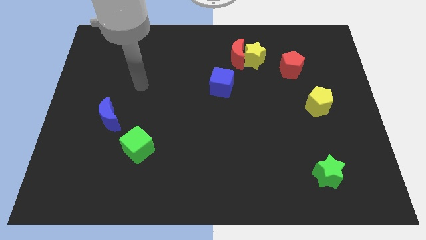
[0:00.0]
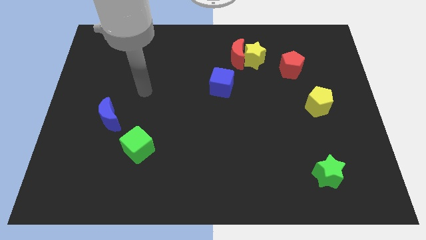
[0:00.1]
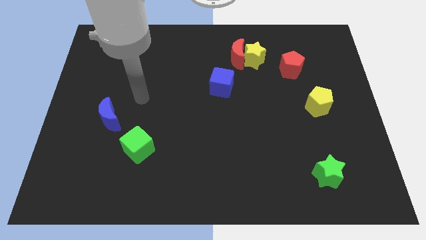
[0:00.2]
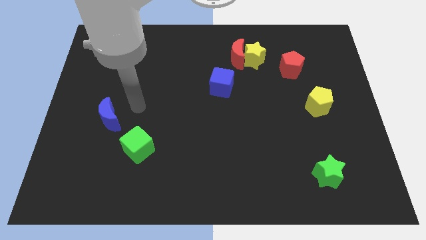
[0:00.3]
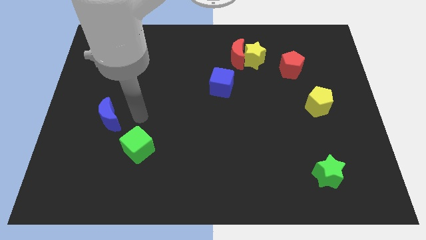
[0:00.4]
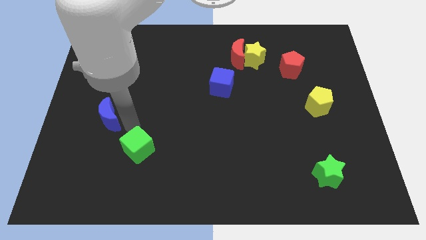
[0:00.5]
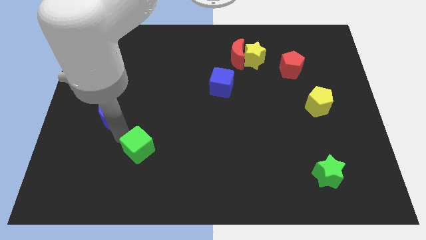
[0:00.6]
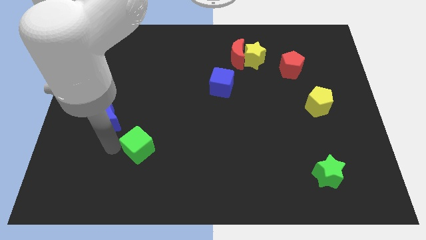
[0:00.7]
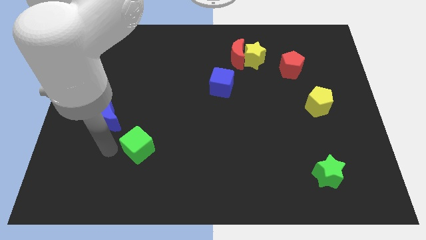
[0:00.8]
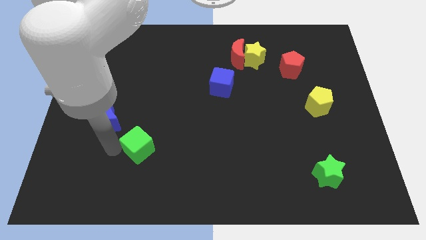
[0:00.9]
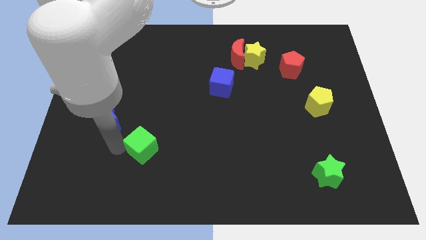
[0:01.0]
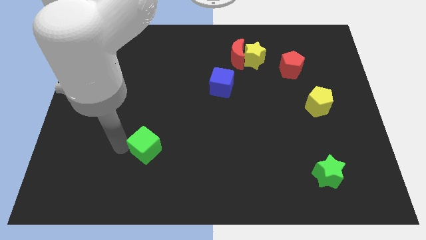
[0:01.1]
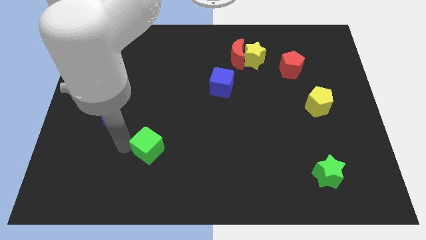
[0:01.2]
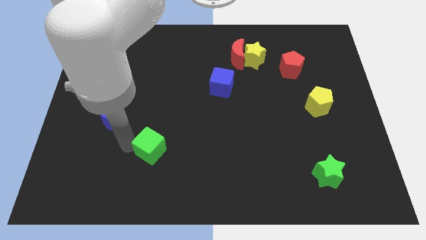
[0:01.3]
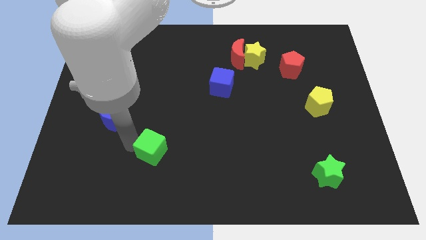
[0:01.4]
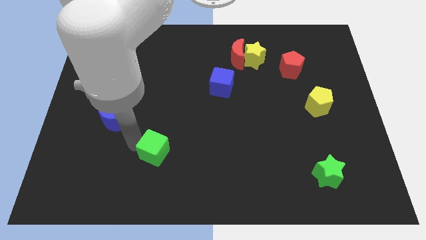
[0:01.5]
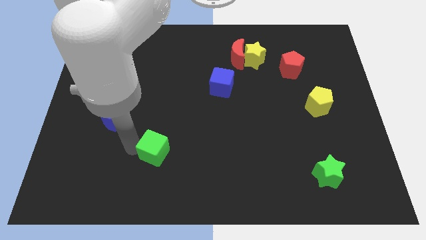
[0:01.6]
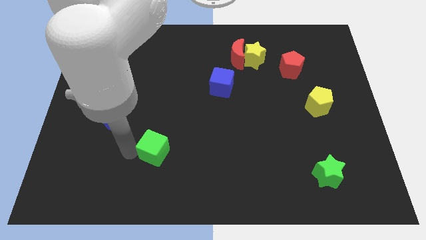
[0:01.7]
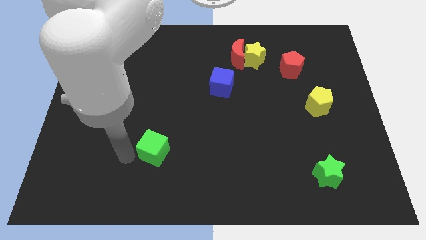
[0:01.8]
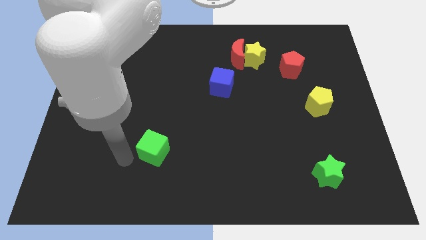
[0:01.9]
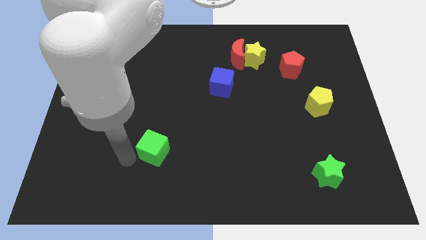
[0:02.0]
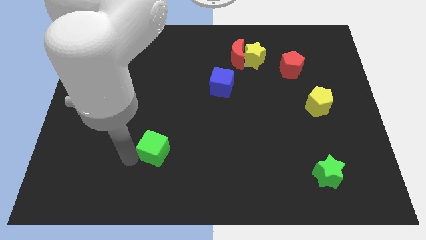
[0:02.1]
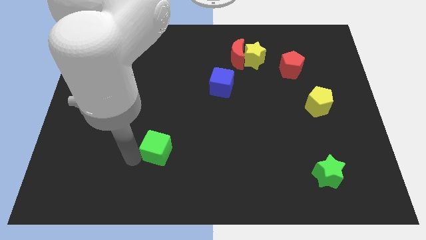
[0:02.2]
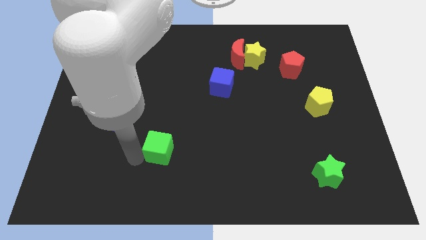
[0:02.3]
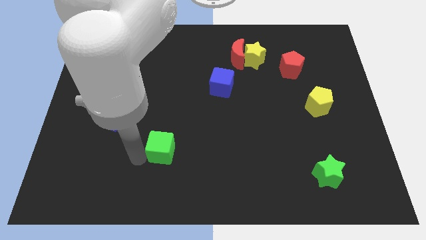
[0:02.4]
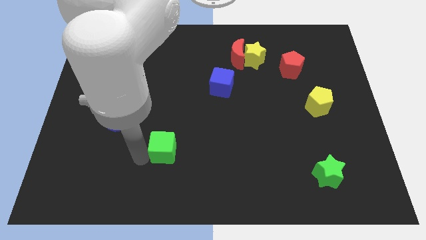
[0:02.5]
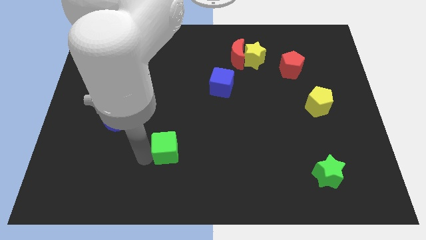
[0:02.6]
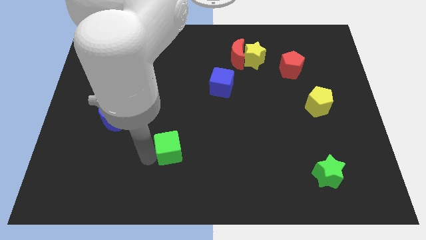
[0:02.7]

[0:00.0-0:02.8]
slide the green cube slightly right

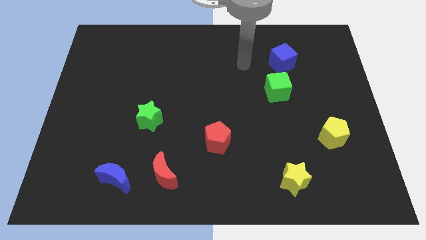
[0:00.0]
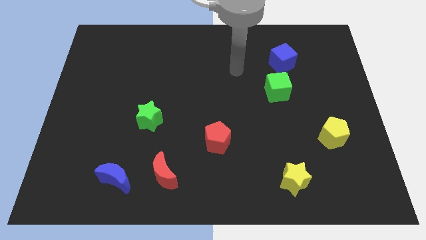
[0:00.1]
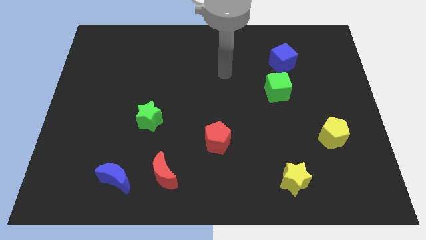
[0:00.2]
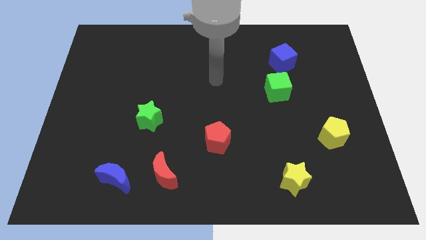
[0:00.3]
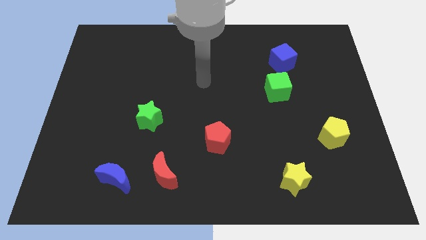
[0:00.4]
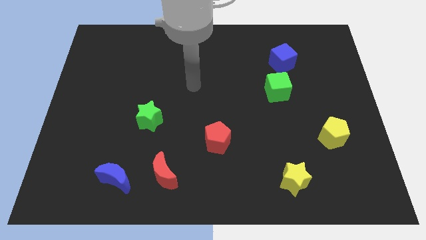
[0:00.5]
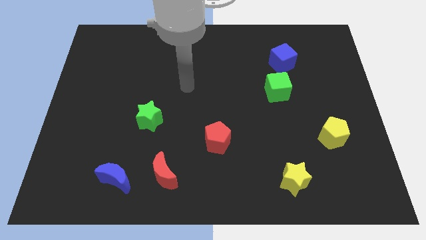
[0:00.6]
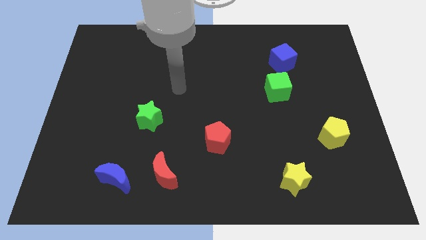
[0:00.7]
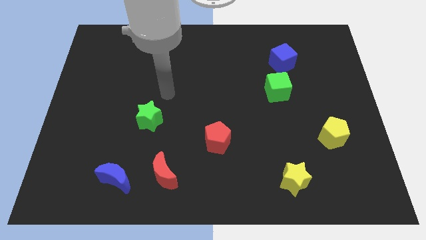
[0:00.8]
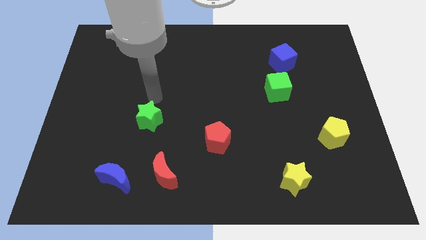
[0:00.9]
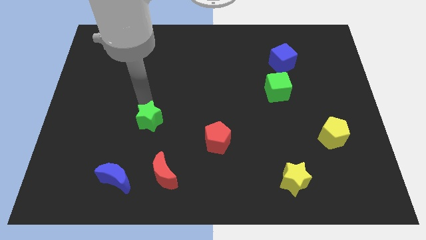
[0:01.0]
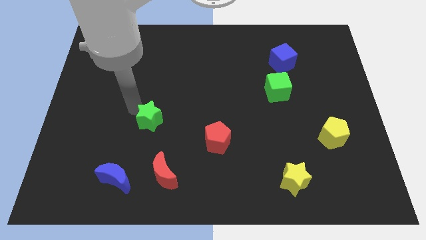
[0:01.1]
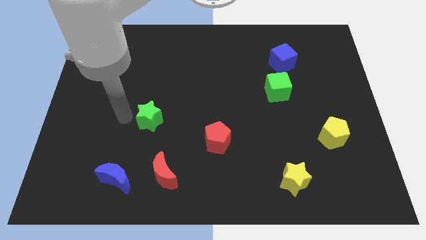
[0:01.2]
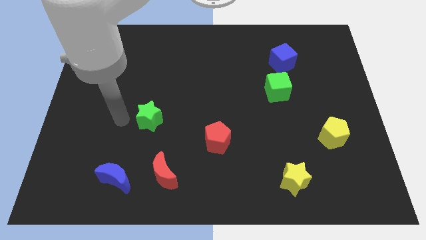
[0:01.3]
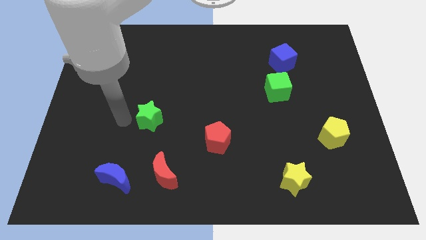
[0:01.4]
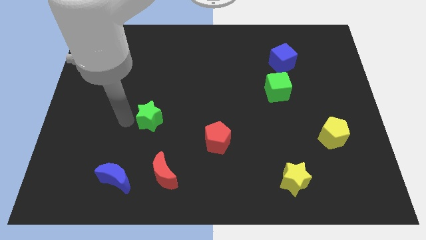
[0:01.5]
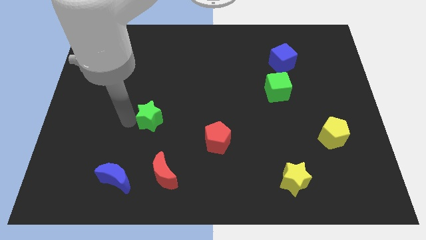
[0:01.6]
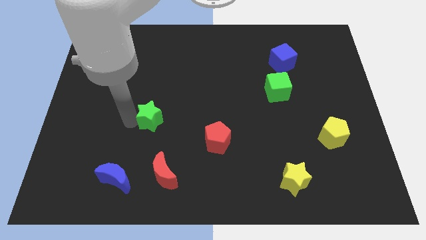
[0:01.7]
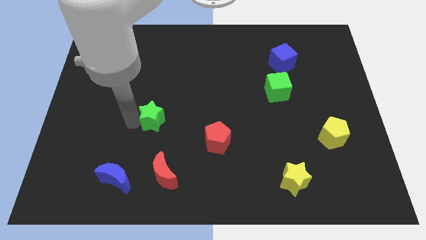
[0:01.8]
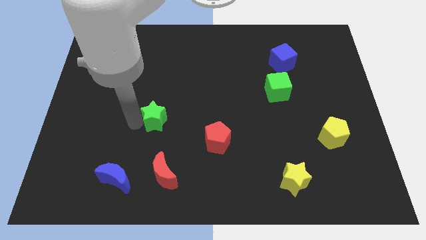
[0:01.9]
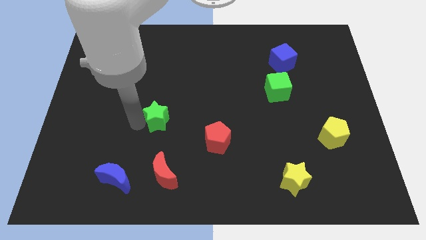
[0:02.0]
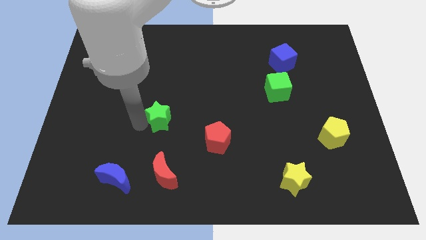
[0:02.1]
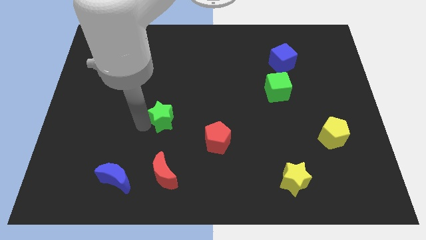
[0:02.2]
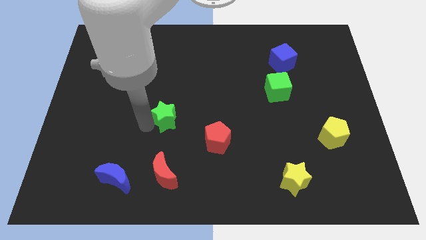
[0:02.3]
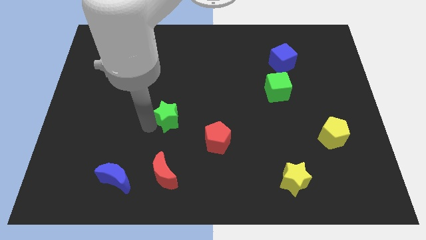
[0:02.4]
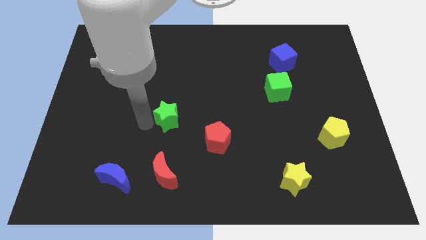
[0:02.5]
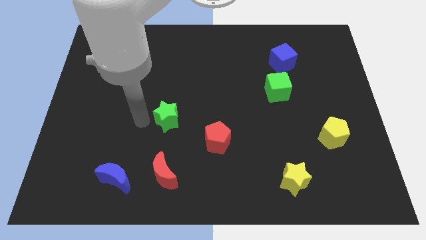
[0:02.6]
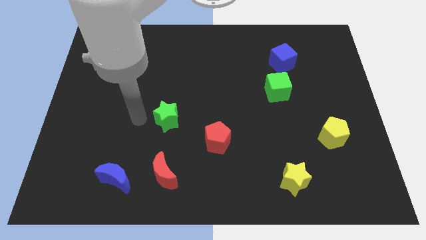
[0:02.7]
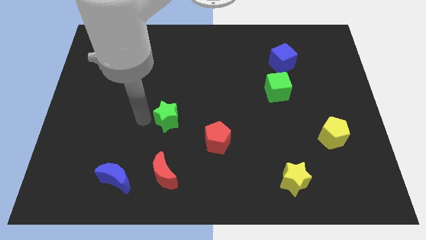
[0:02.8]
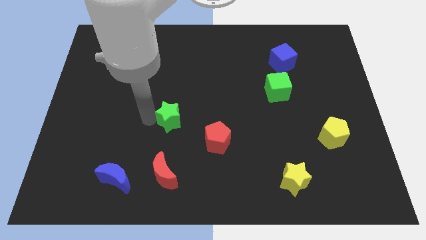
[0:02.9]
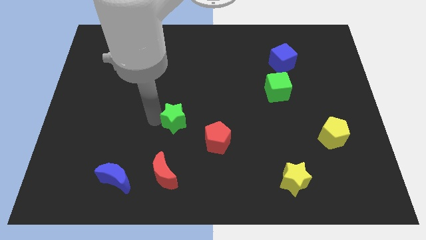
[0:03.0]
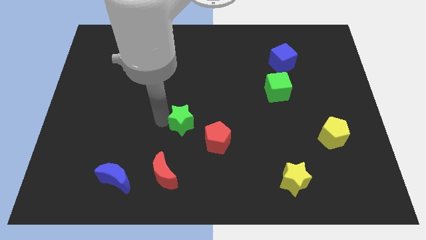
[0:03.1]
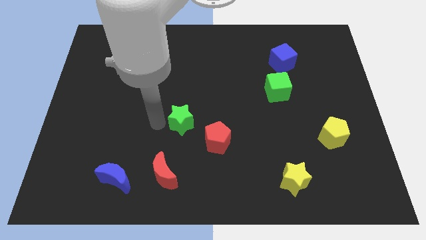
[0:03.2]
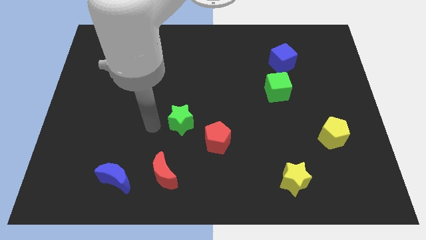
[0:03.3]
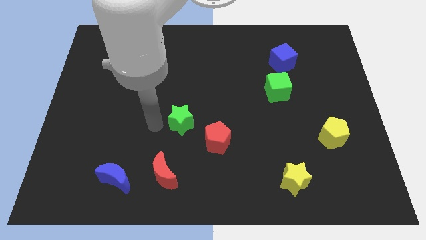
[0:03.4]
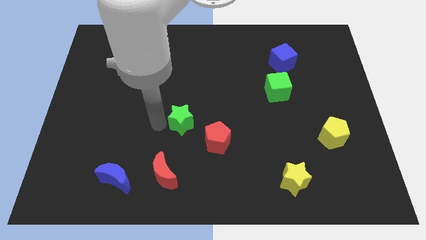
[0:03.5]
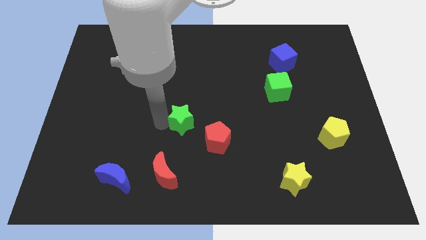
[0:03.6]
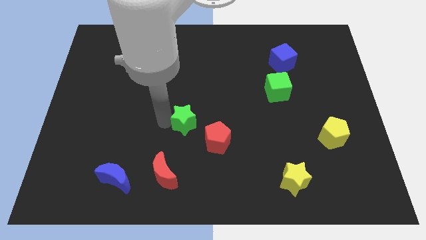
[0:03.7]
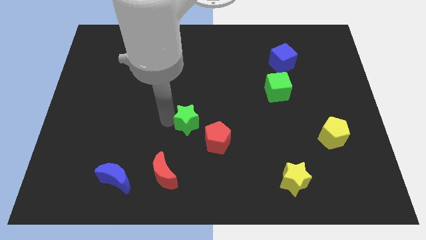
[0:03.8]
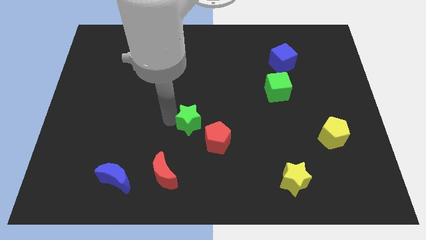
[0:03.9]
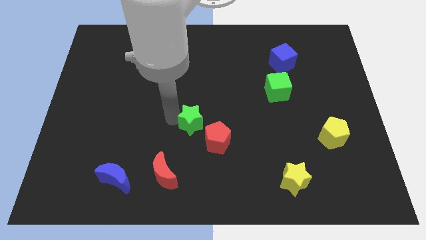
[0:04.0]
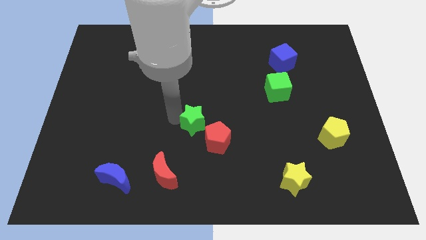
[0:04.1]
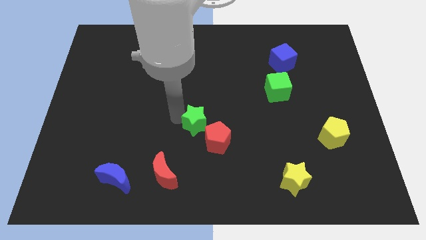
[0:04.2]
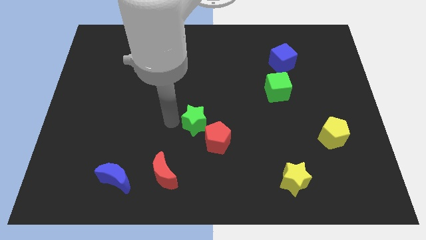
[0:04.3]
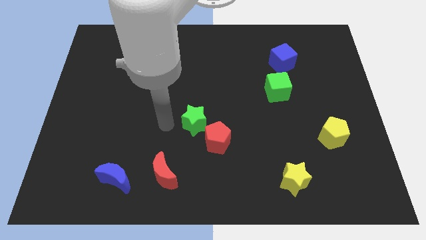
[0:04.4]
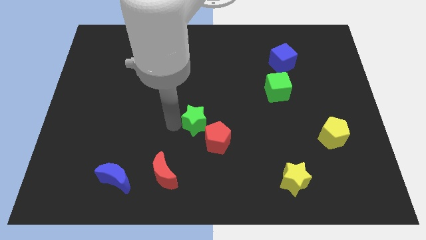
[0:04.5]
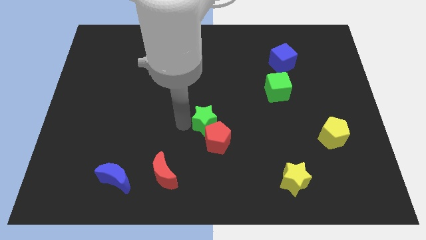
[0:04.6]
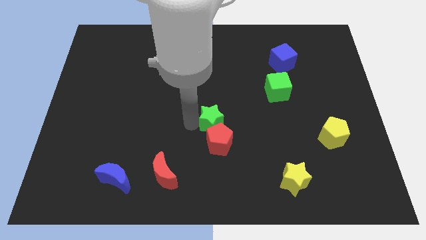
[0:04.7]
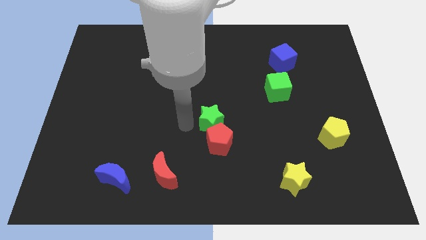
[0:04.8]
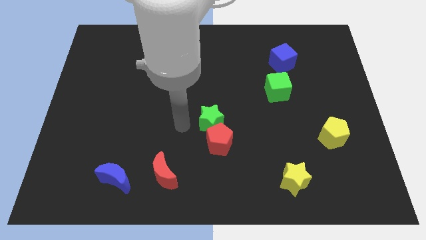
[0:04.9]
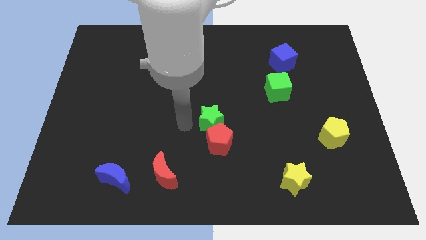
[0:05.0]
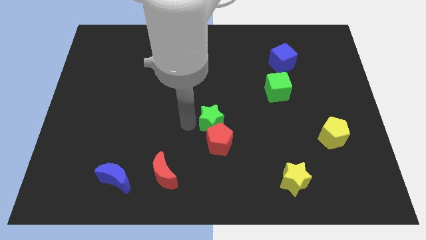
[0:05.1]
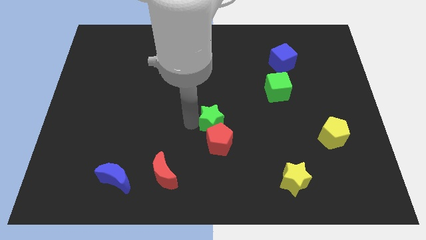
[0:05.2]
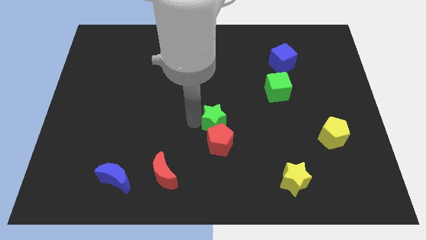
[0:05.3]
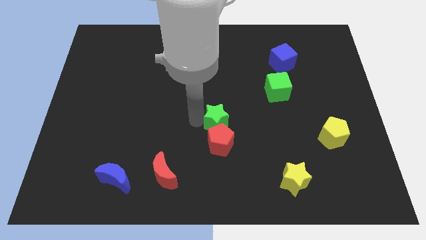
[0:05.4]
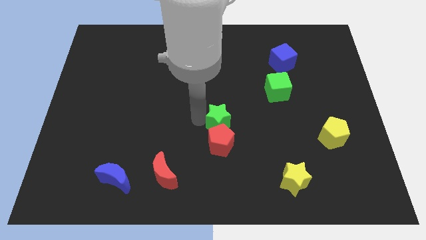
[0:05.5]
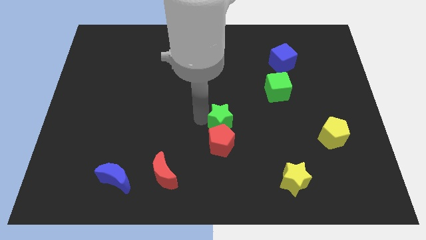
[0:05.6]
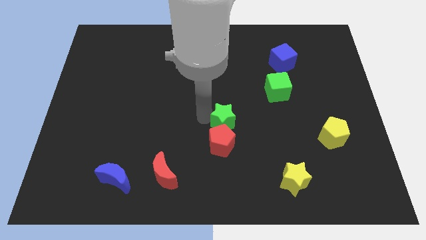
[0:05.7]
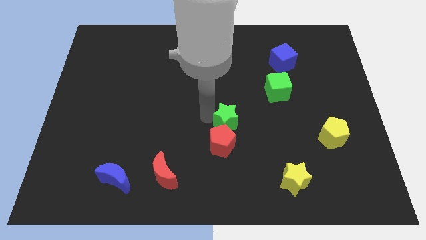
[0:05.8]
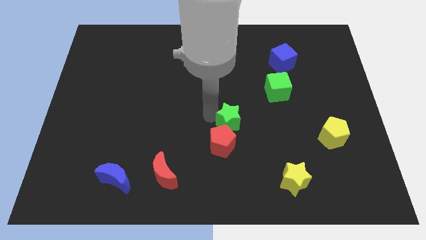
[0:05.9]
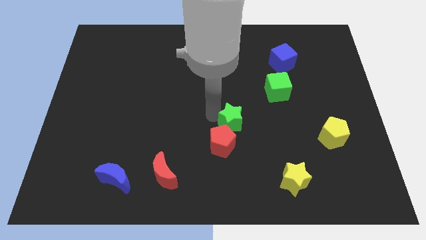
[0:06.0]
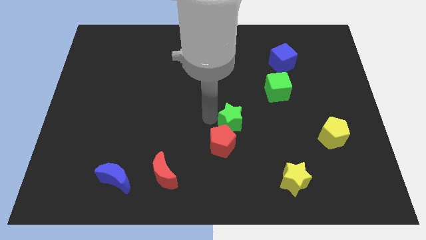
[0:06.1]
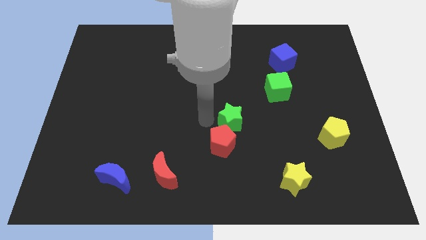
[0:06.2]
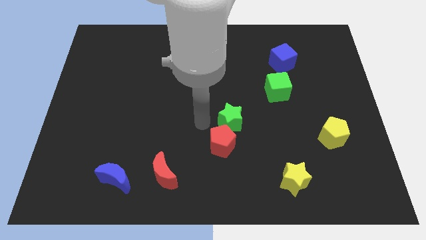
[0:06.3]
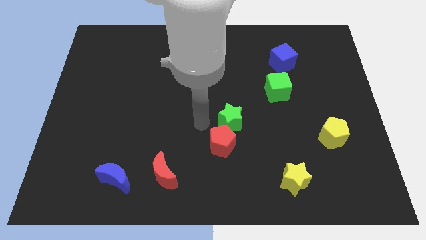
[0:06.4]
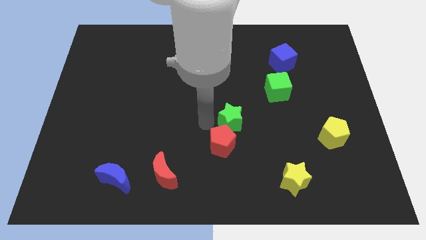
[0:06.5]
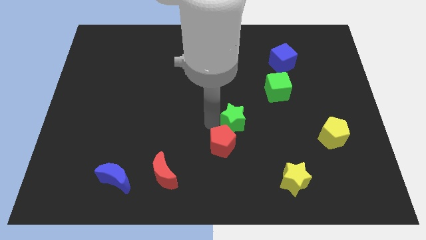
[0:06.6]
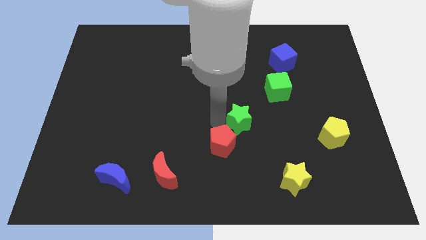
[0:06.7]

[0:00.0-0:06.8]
slide the green star right
